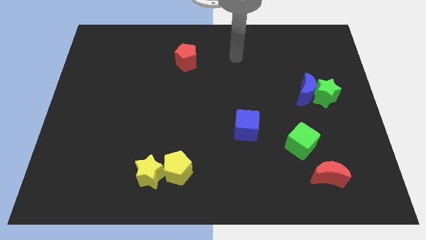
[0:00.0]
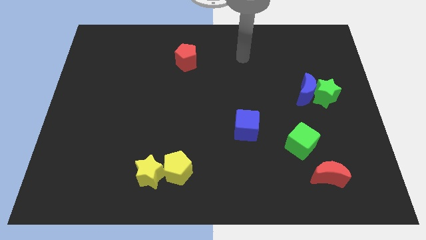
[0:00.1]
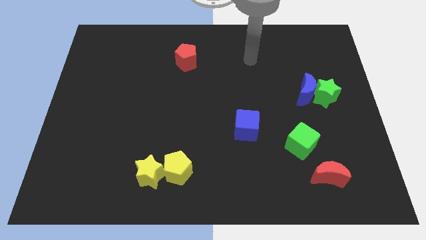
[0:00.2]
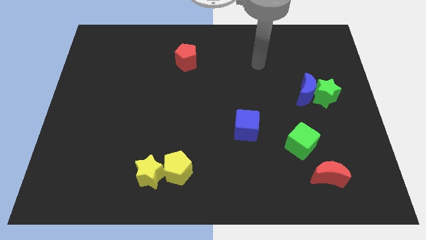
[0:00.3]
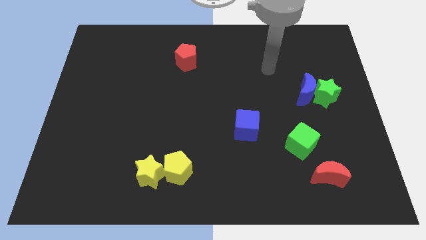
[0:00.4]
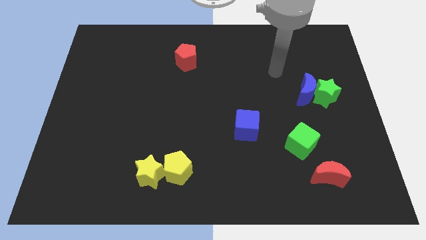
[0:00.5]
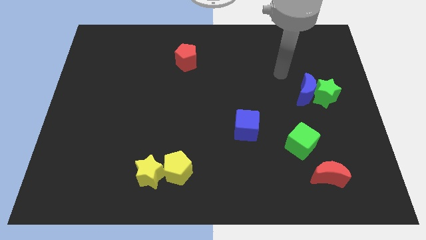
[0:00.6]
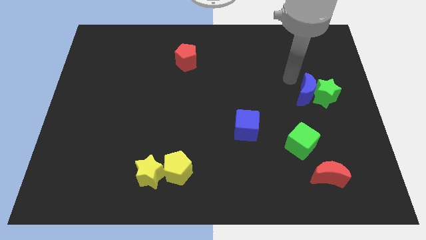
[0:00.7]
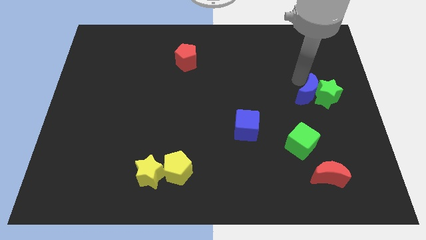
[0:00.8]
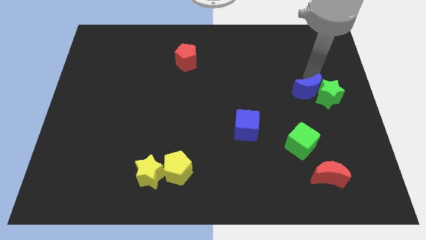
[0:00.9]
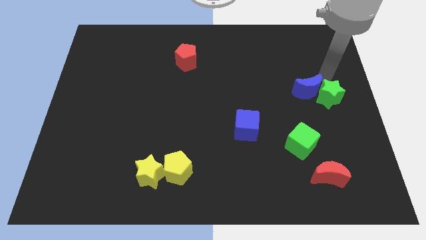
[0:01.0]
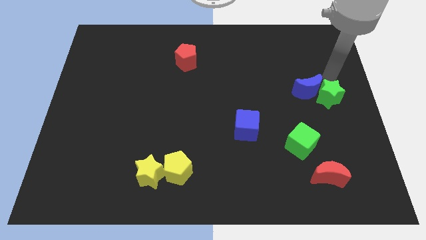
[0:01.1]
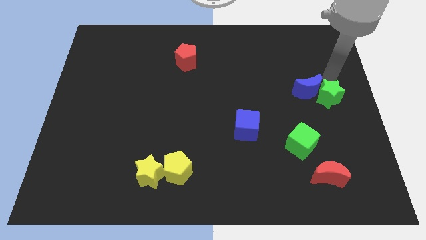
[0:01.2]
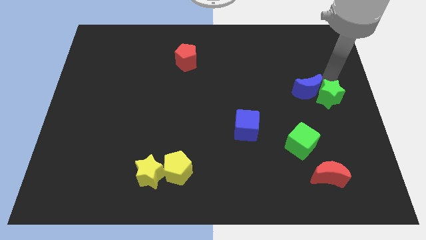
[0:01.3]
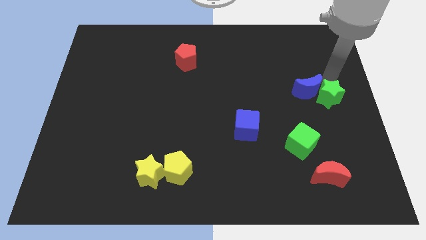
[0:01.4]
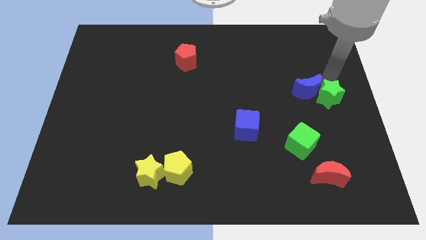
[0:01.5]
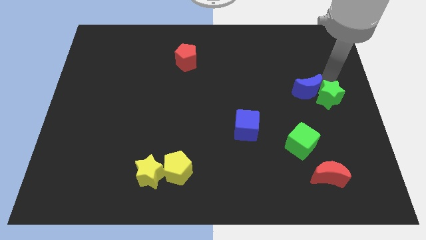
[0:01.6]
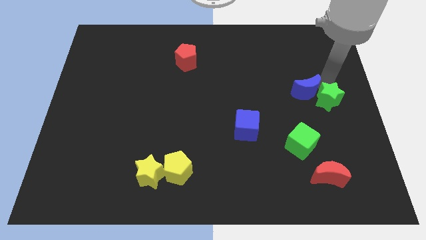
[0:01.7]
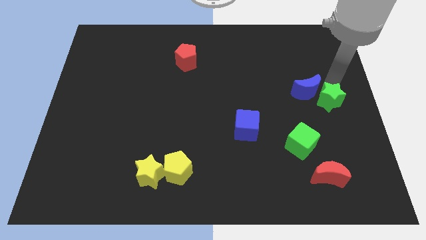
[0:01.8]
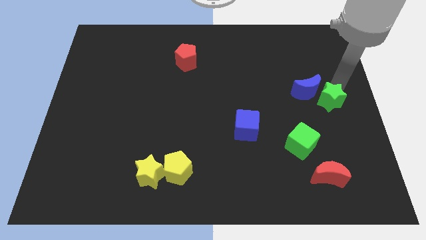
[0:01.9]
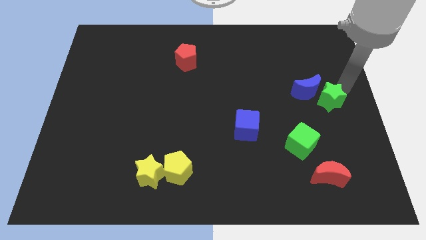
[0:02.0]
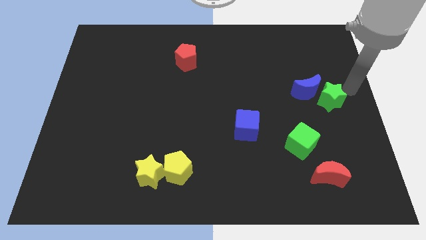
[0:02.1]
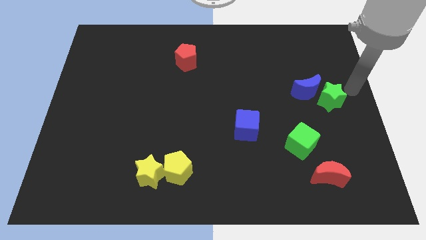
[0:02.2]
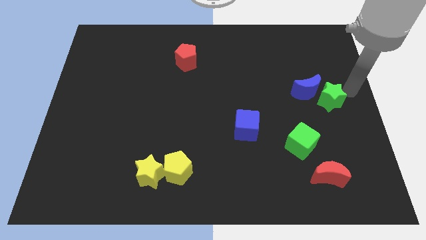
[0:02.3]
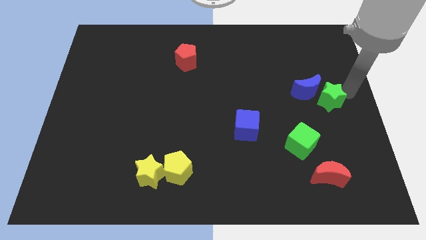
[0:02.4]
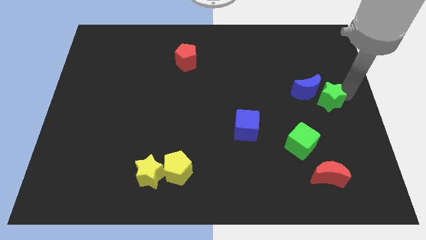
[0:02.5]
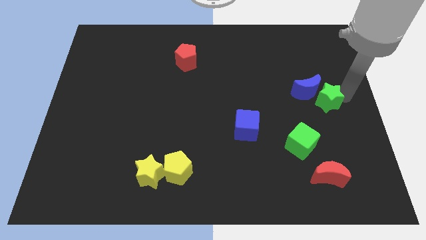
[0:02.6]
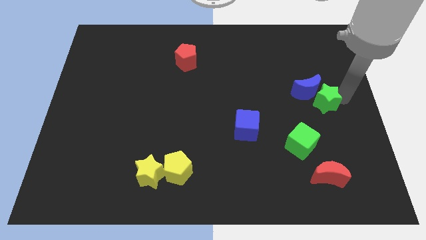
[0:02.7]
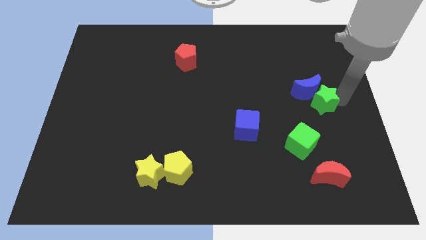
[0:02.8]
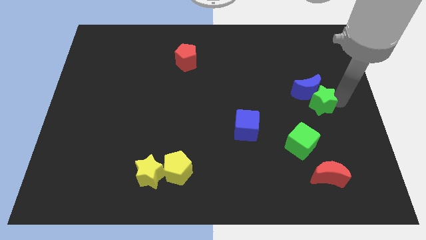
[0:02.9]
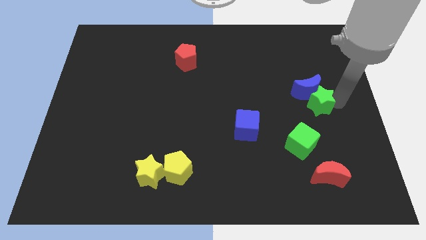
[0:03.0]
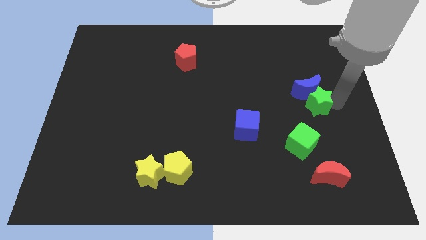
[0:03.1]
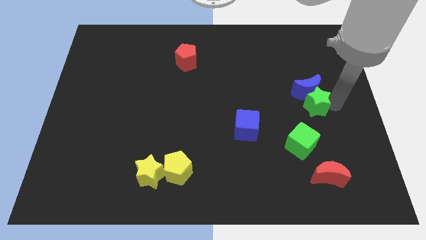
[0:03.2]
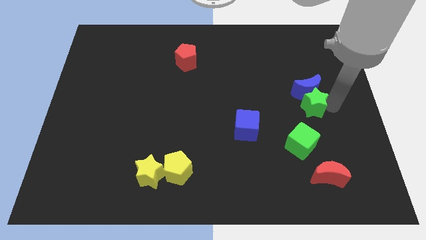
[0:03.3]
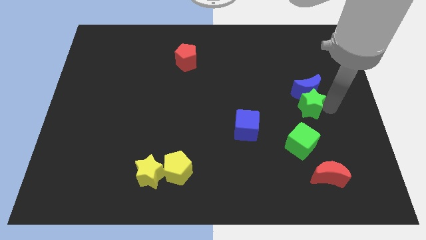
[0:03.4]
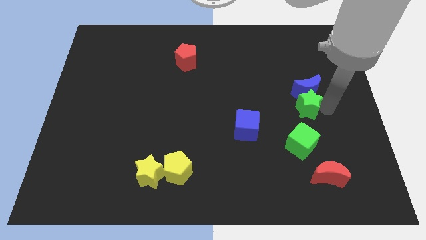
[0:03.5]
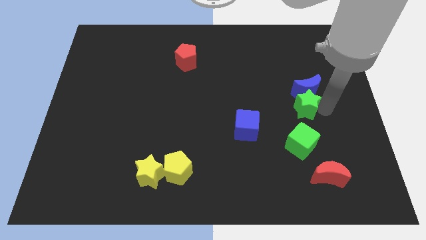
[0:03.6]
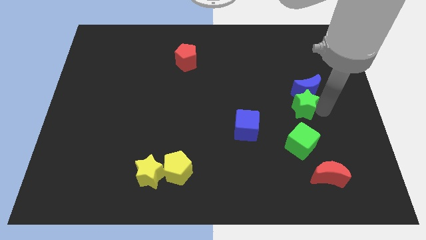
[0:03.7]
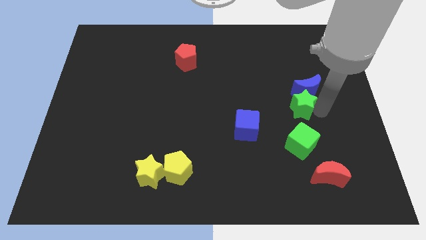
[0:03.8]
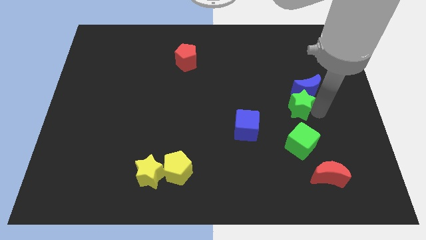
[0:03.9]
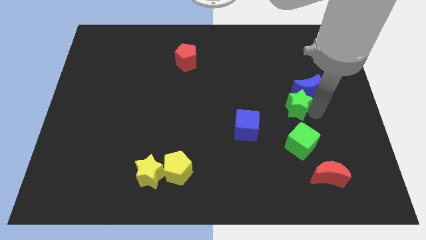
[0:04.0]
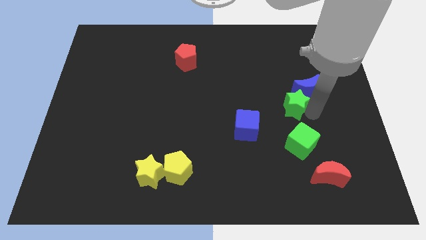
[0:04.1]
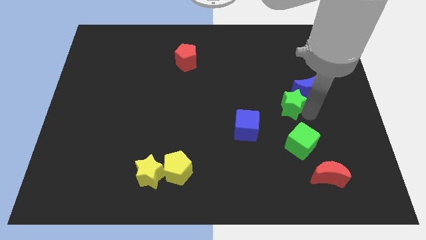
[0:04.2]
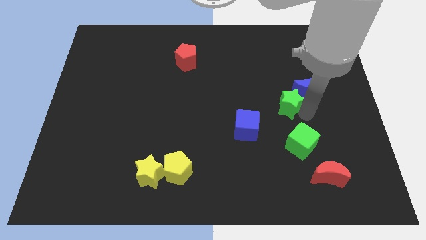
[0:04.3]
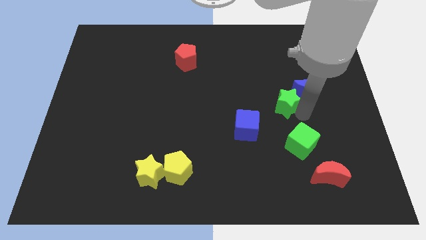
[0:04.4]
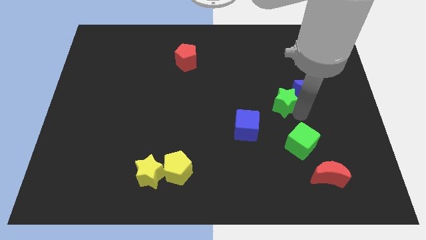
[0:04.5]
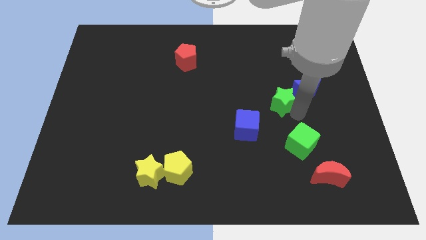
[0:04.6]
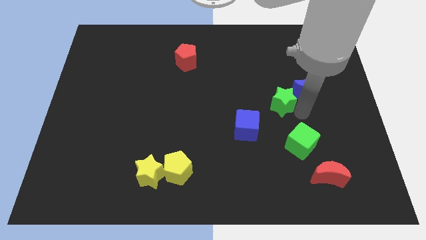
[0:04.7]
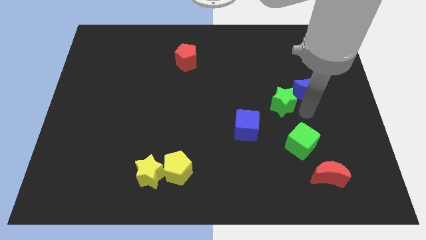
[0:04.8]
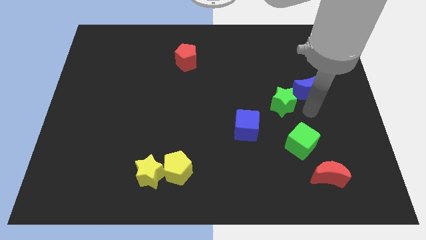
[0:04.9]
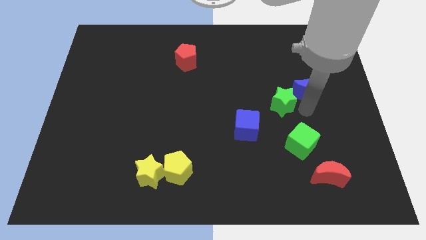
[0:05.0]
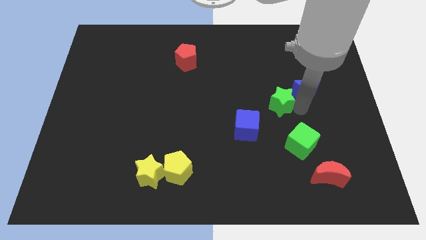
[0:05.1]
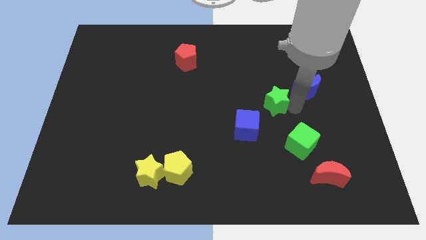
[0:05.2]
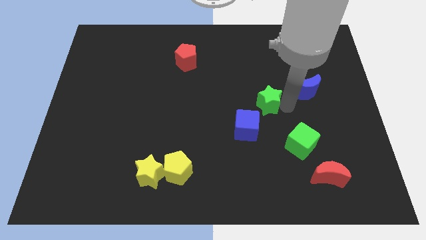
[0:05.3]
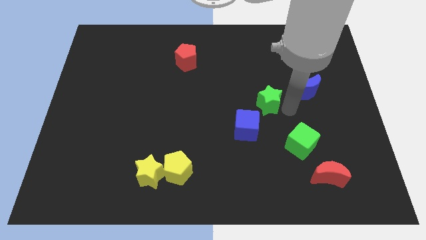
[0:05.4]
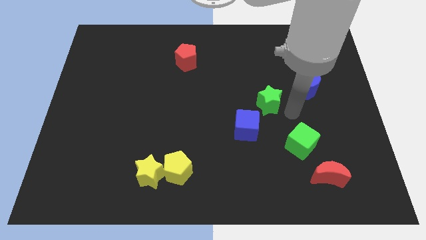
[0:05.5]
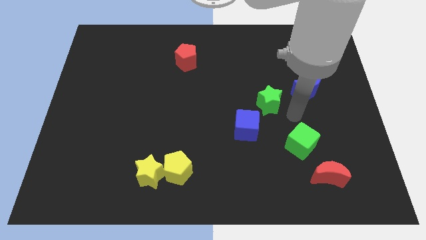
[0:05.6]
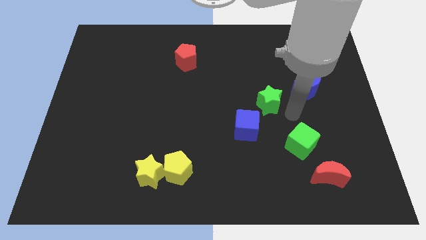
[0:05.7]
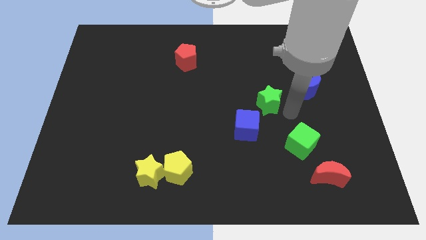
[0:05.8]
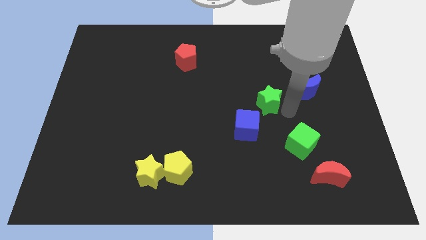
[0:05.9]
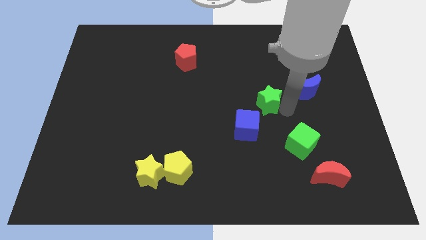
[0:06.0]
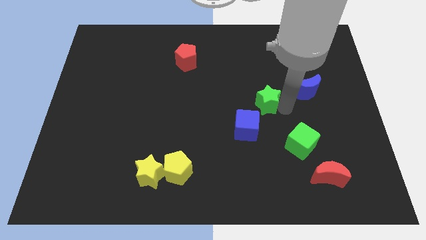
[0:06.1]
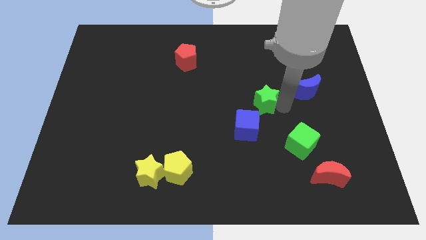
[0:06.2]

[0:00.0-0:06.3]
slide the green star to the middle of the board

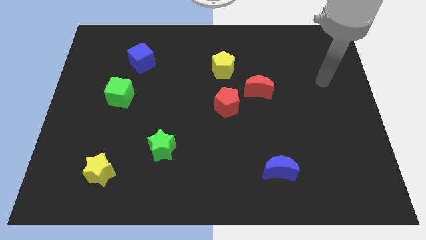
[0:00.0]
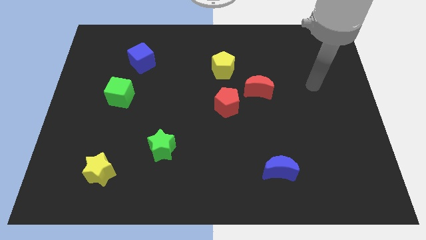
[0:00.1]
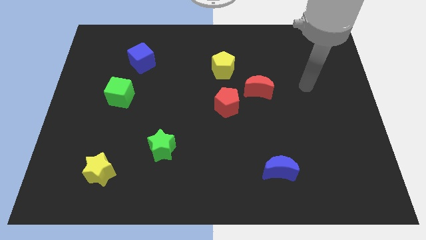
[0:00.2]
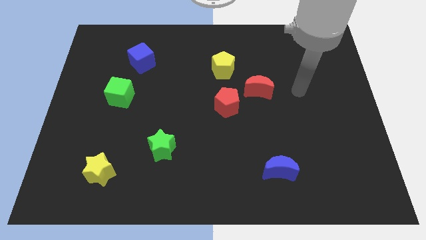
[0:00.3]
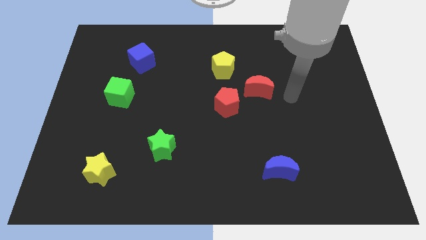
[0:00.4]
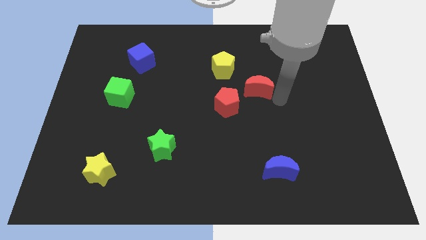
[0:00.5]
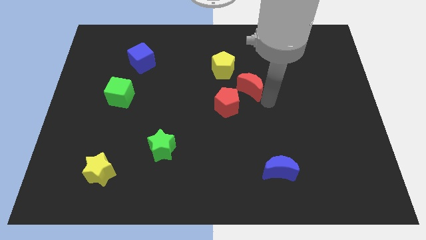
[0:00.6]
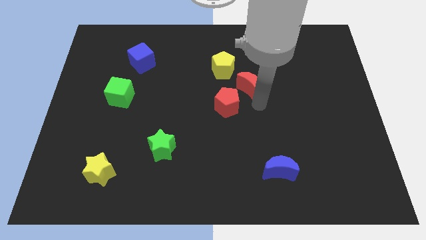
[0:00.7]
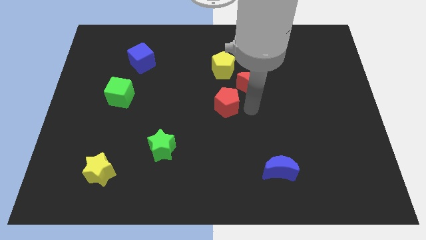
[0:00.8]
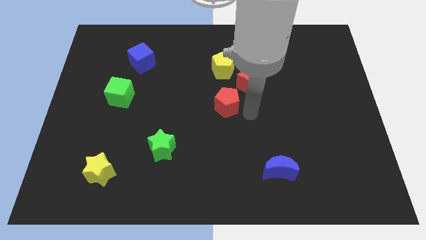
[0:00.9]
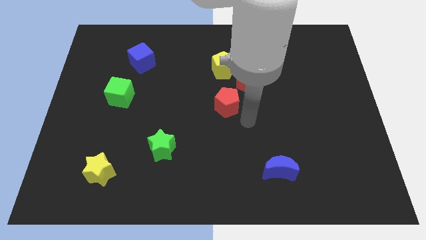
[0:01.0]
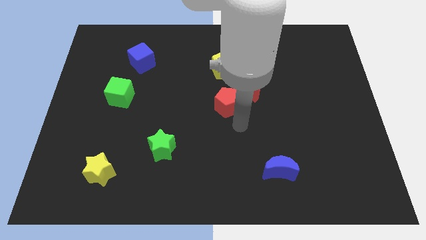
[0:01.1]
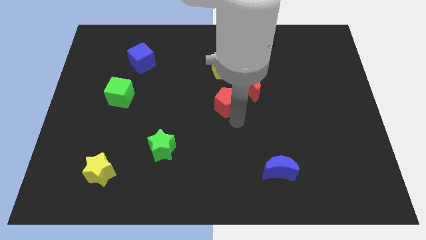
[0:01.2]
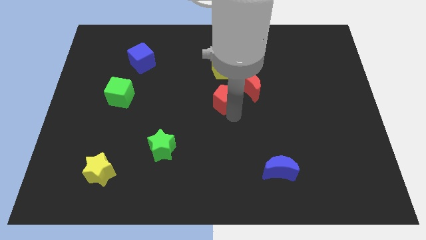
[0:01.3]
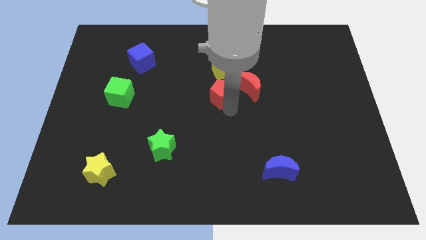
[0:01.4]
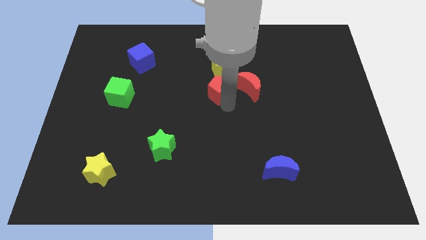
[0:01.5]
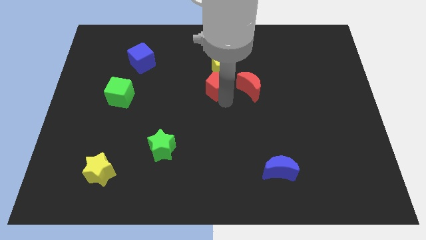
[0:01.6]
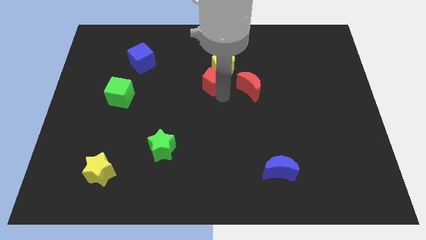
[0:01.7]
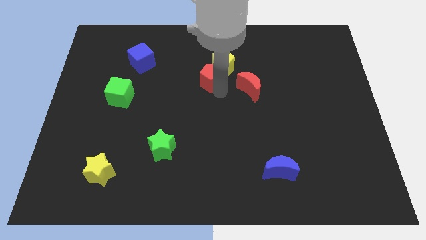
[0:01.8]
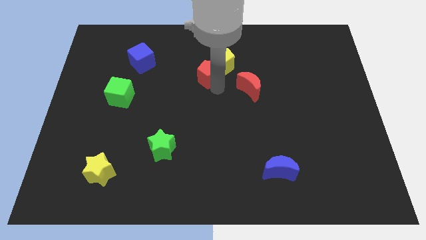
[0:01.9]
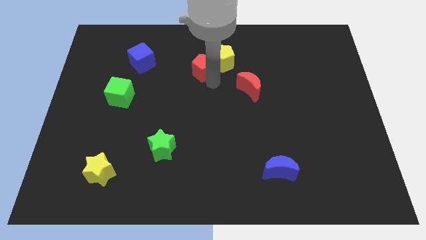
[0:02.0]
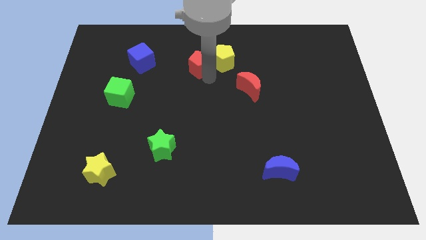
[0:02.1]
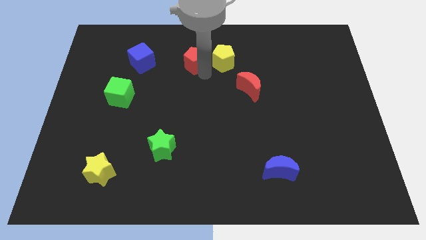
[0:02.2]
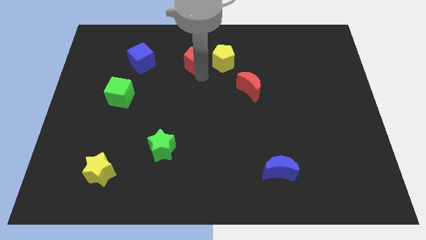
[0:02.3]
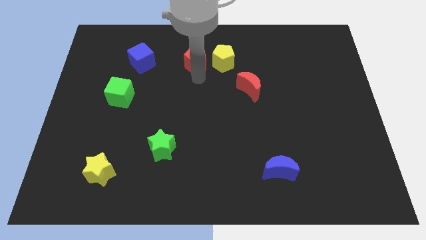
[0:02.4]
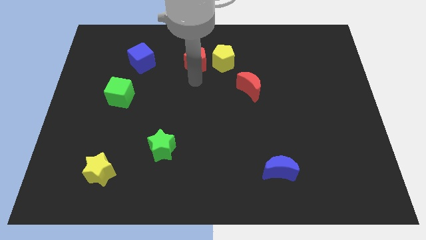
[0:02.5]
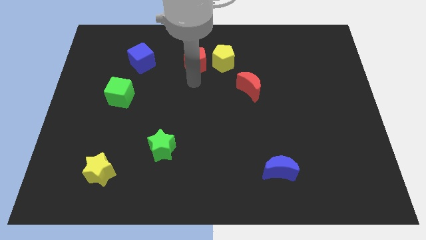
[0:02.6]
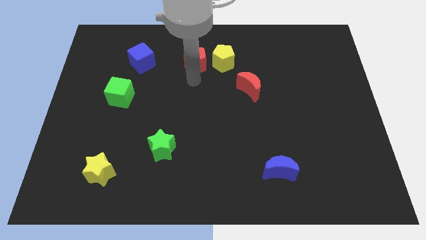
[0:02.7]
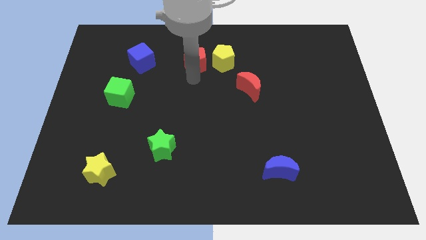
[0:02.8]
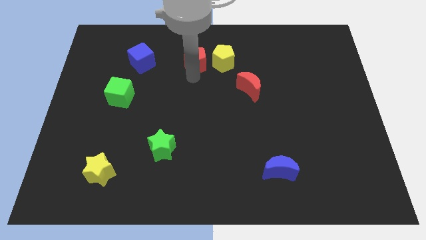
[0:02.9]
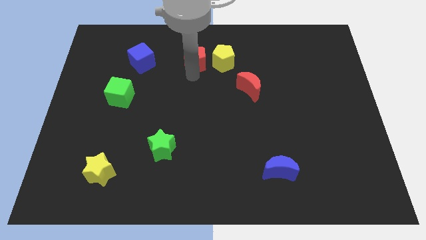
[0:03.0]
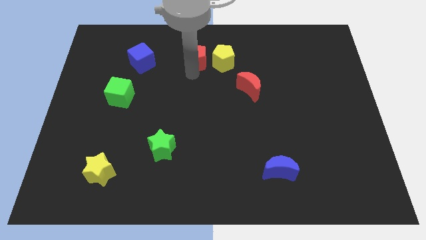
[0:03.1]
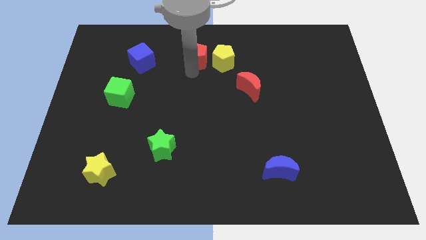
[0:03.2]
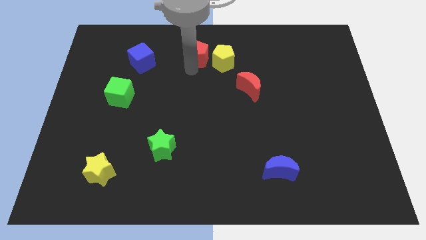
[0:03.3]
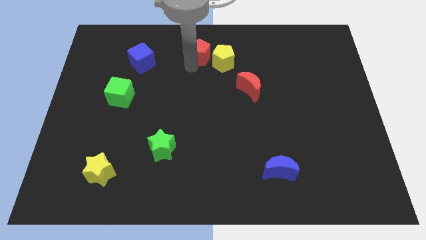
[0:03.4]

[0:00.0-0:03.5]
move the red pentagon to the top side
